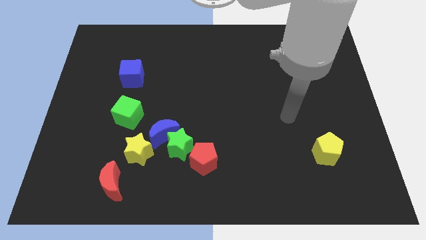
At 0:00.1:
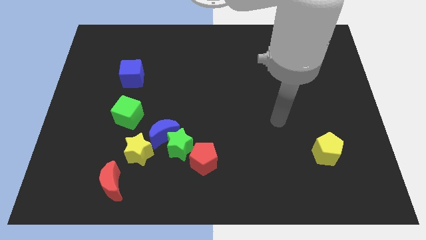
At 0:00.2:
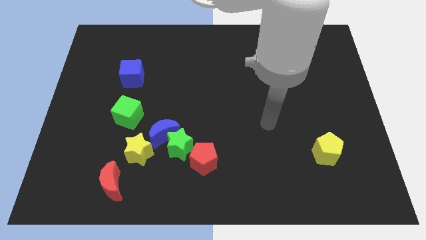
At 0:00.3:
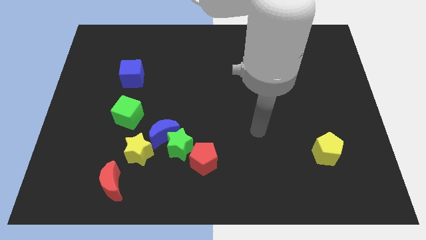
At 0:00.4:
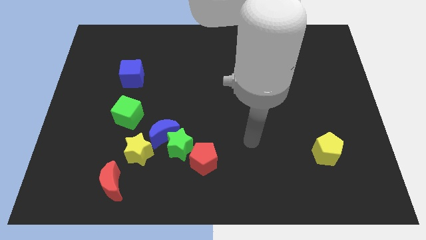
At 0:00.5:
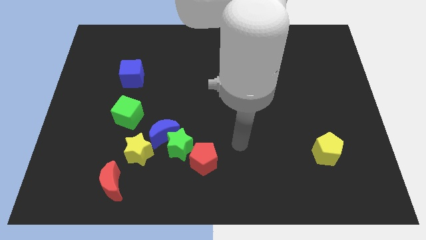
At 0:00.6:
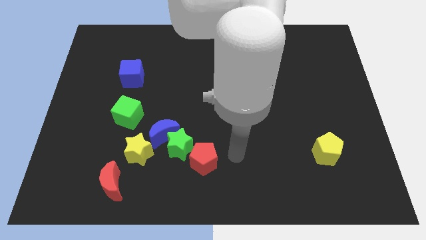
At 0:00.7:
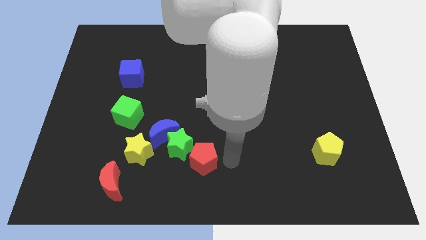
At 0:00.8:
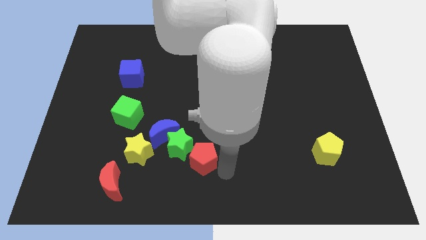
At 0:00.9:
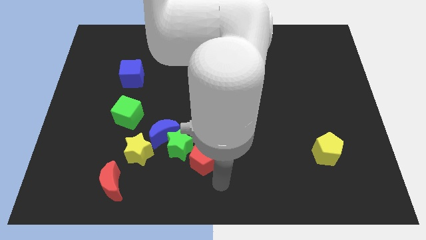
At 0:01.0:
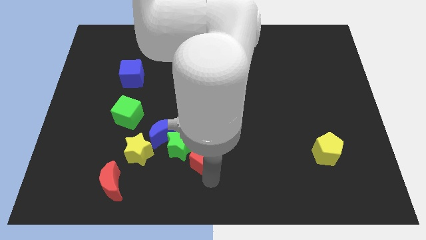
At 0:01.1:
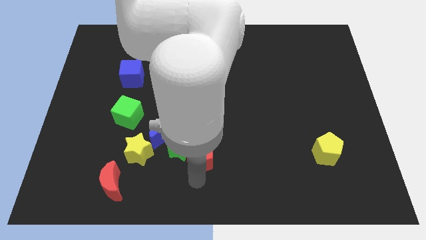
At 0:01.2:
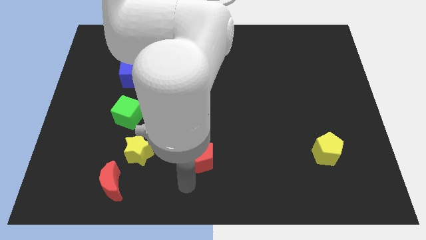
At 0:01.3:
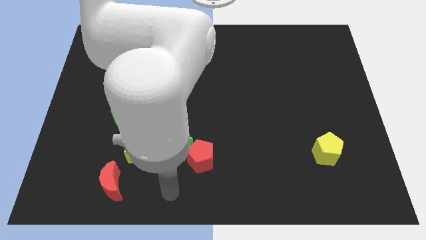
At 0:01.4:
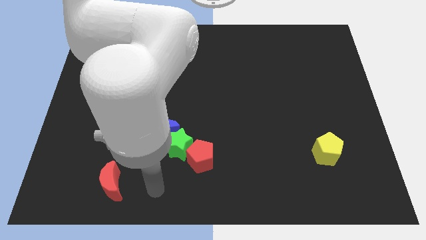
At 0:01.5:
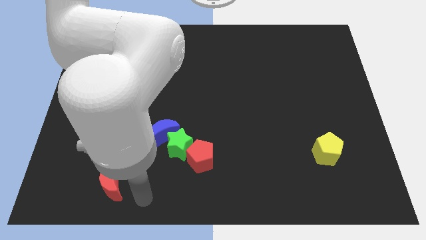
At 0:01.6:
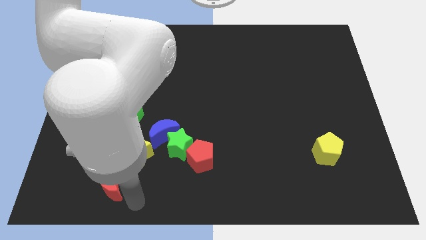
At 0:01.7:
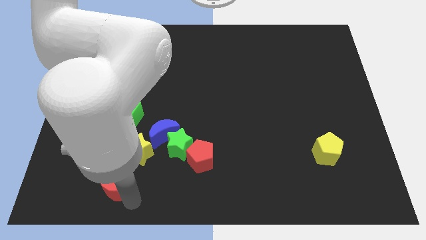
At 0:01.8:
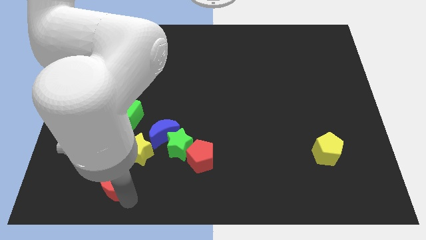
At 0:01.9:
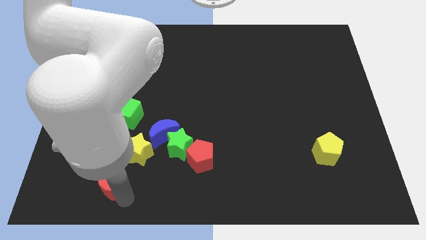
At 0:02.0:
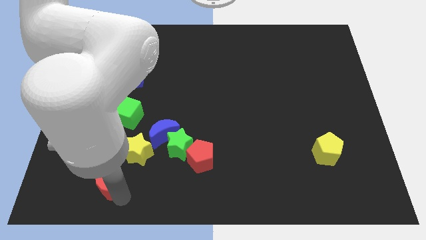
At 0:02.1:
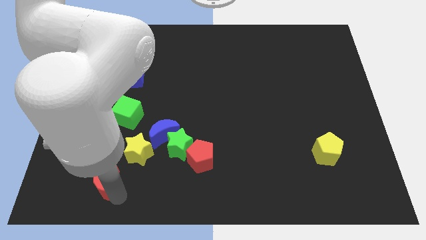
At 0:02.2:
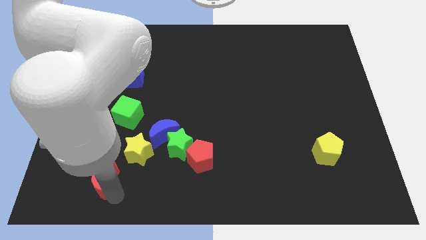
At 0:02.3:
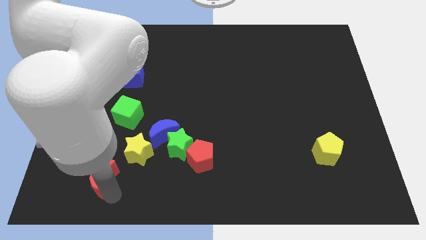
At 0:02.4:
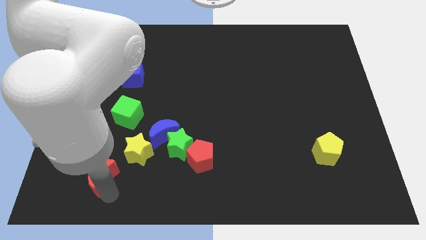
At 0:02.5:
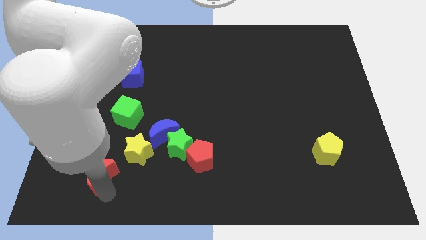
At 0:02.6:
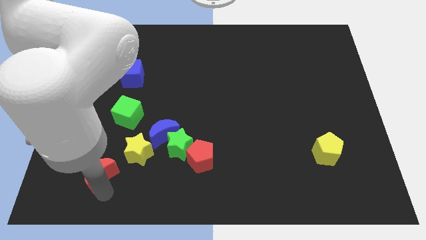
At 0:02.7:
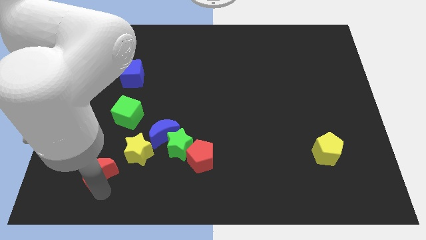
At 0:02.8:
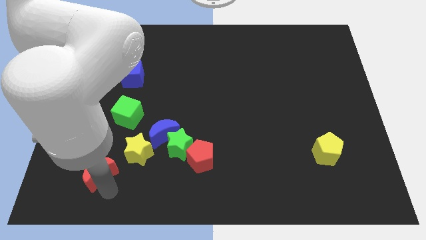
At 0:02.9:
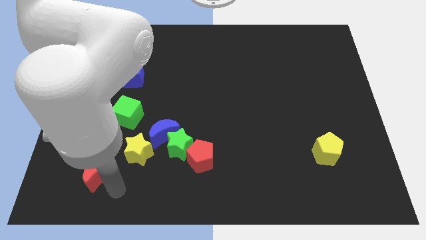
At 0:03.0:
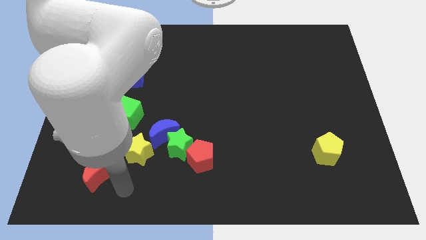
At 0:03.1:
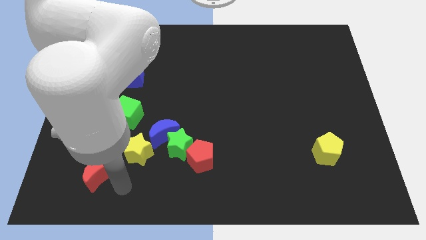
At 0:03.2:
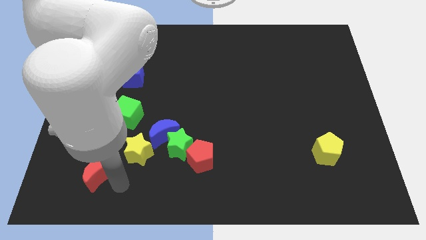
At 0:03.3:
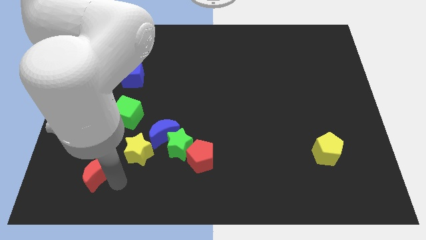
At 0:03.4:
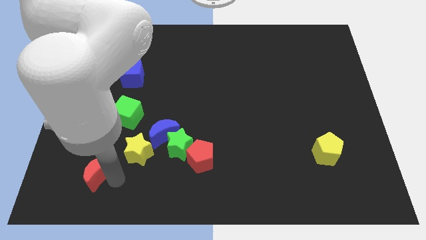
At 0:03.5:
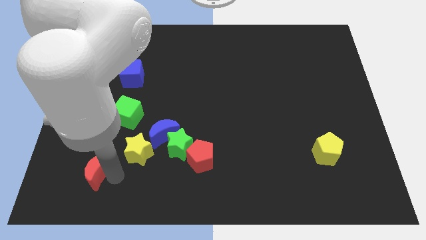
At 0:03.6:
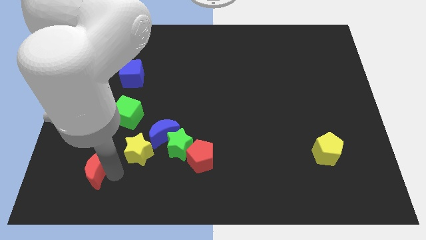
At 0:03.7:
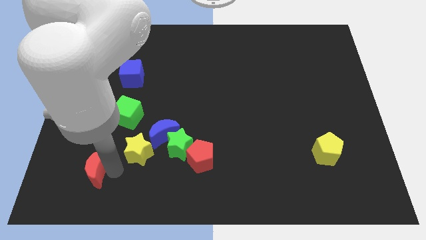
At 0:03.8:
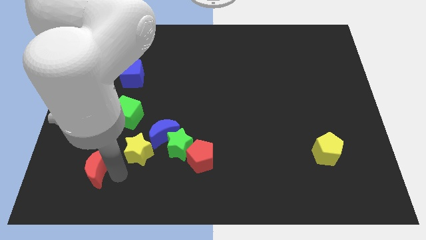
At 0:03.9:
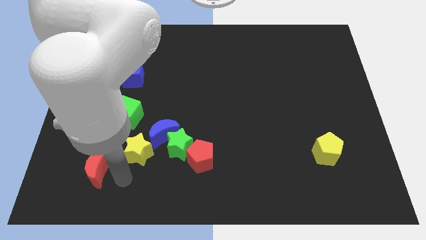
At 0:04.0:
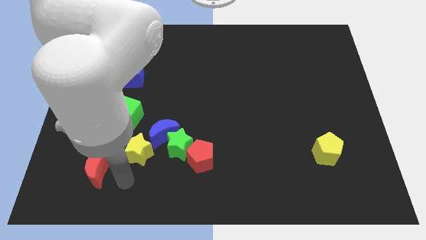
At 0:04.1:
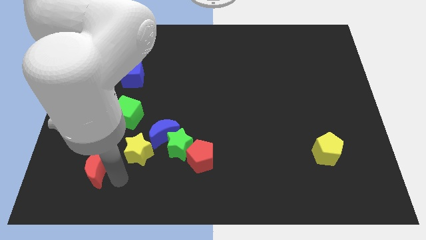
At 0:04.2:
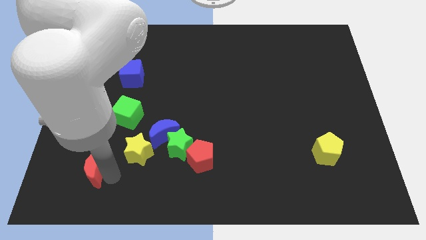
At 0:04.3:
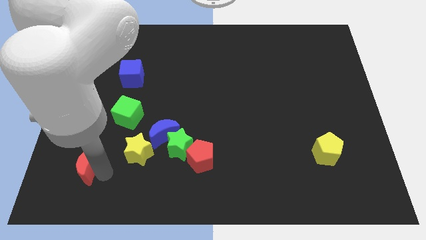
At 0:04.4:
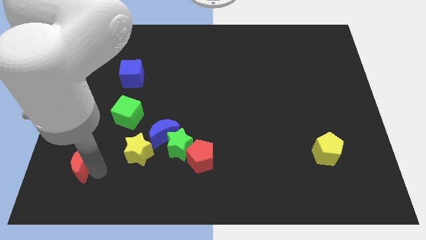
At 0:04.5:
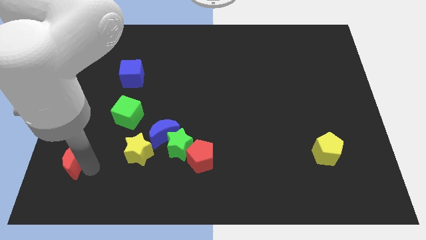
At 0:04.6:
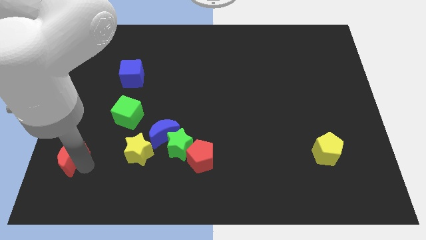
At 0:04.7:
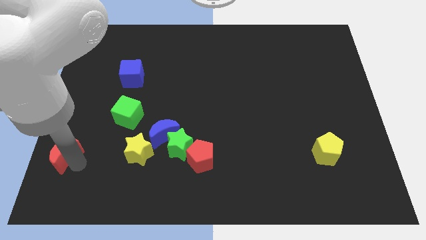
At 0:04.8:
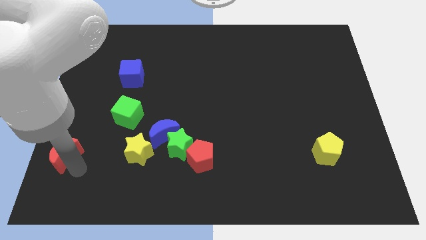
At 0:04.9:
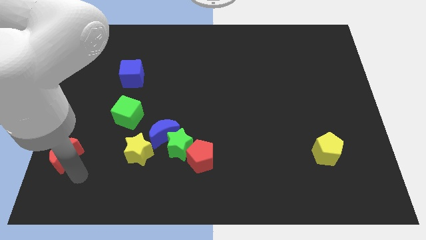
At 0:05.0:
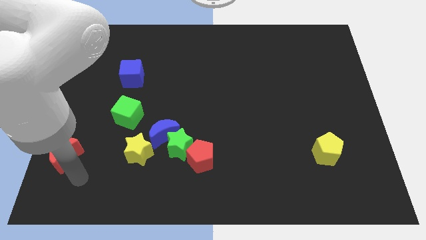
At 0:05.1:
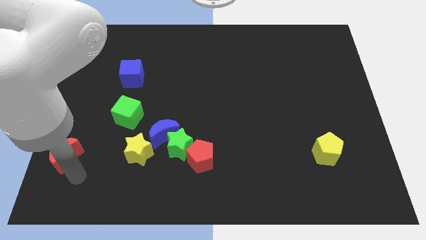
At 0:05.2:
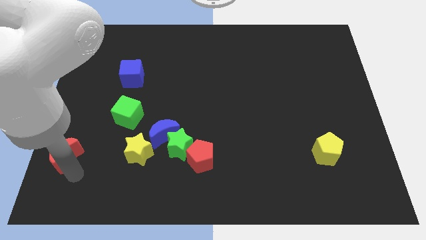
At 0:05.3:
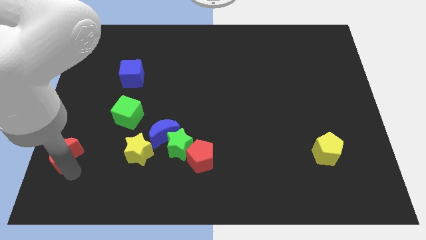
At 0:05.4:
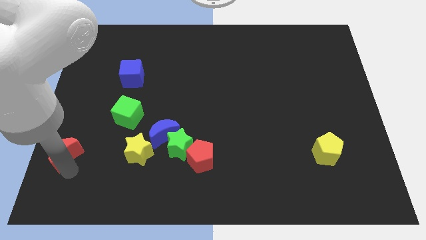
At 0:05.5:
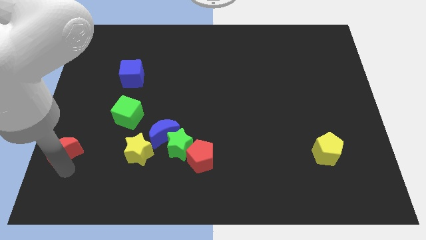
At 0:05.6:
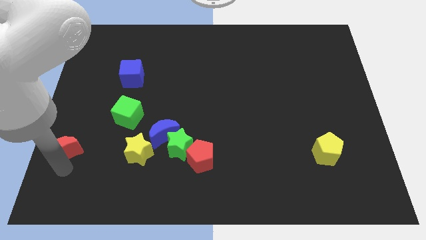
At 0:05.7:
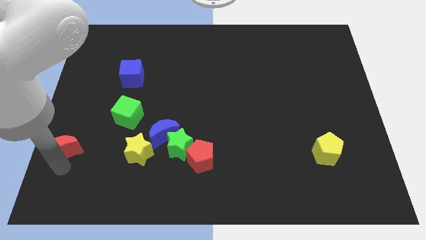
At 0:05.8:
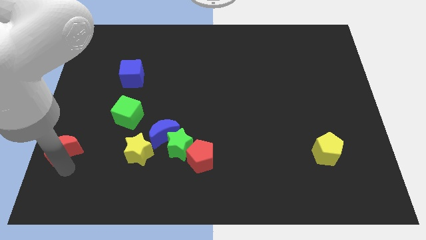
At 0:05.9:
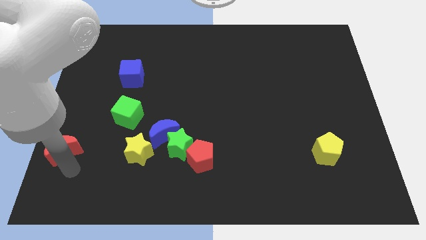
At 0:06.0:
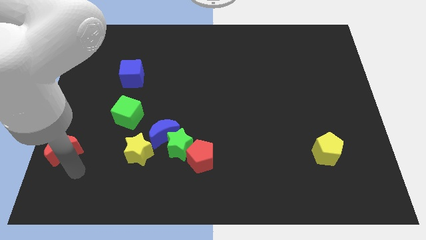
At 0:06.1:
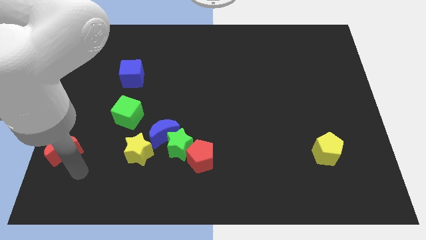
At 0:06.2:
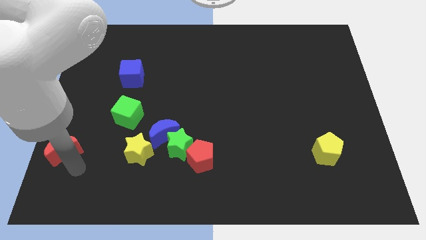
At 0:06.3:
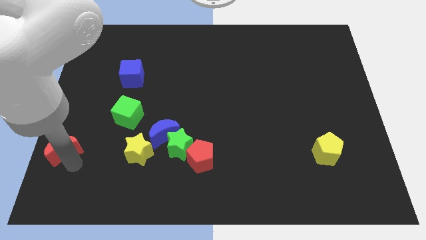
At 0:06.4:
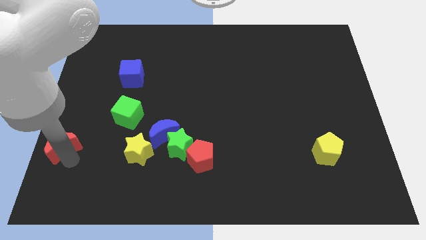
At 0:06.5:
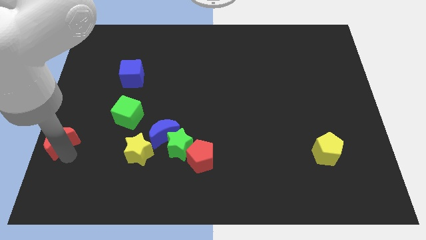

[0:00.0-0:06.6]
slide the red moon to the center left

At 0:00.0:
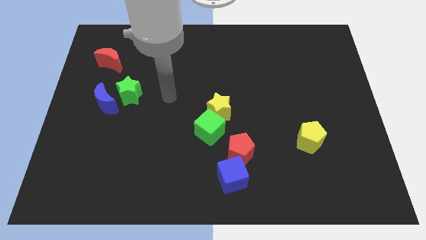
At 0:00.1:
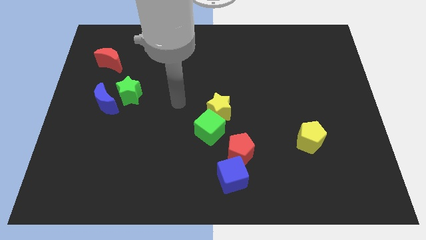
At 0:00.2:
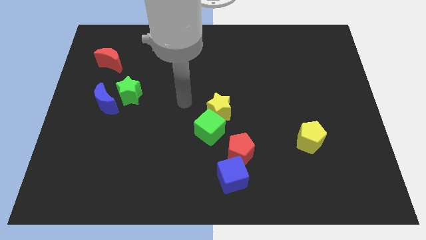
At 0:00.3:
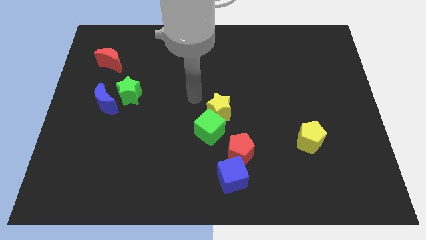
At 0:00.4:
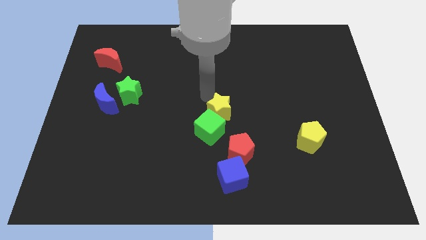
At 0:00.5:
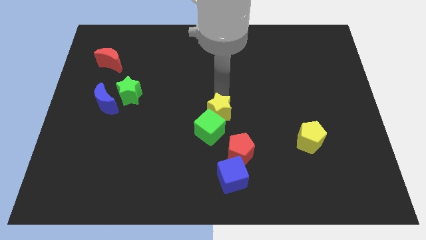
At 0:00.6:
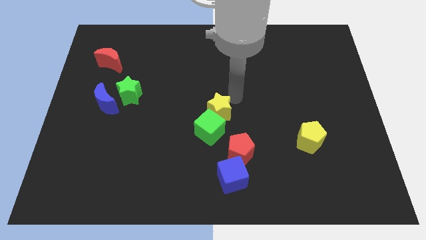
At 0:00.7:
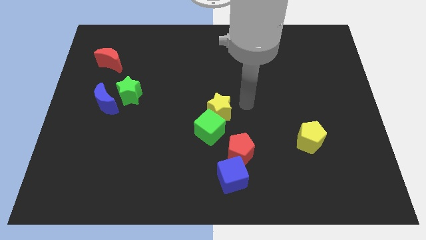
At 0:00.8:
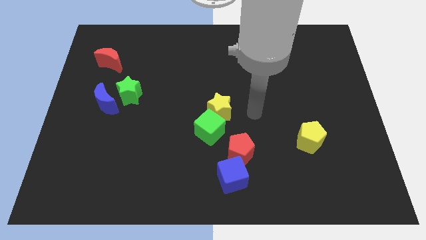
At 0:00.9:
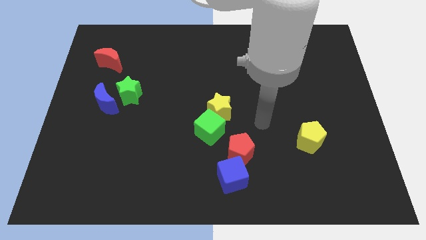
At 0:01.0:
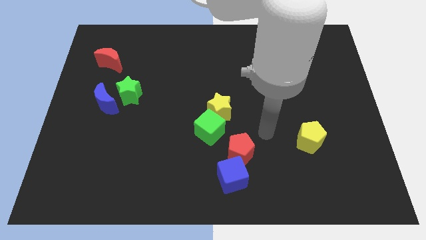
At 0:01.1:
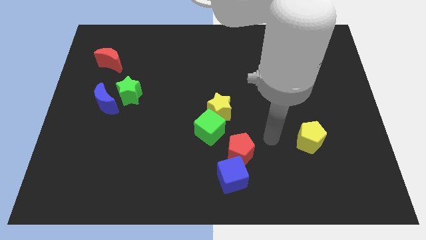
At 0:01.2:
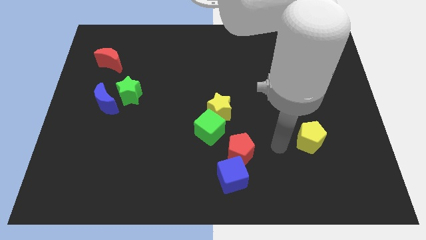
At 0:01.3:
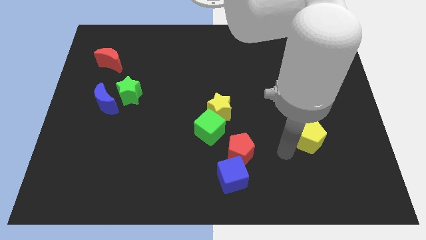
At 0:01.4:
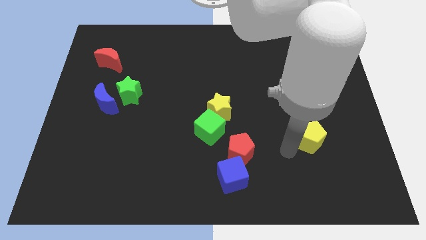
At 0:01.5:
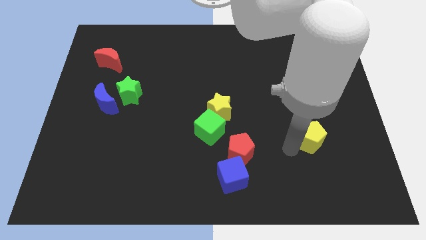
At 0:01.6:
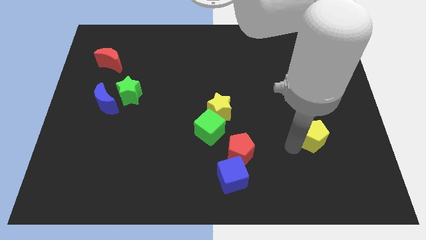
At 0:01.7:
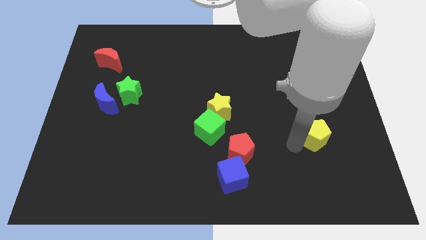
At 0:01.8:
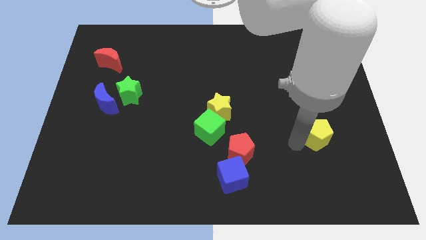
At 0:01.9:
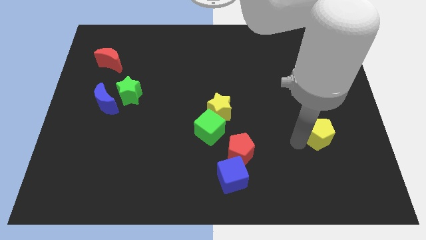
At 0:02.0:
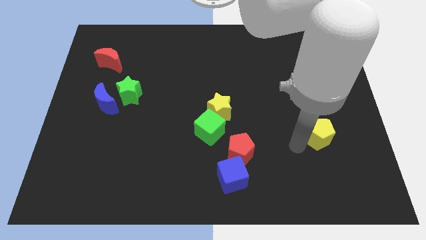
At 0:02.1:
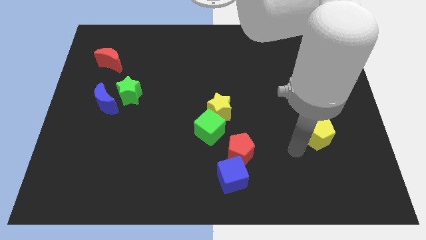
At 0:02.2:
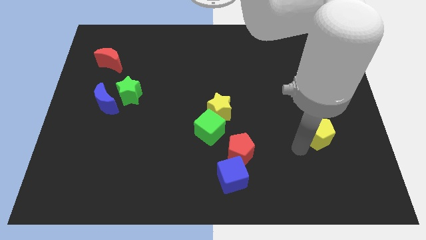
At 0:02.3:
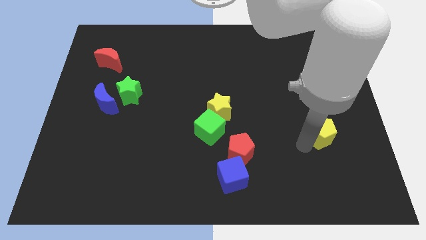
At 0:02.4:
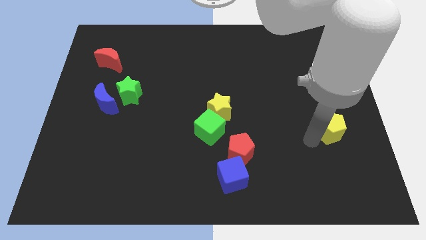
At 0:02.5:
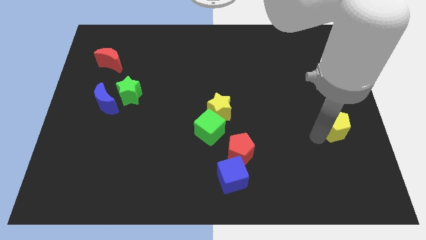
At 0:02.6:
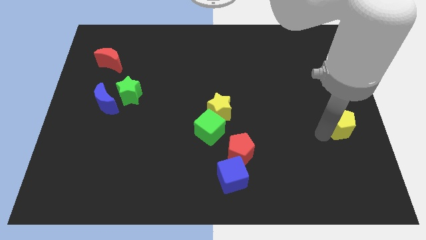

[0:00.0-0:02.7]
put the yellow pentagon to the center right
